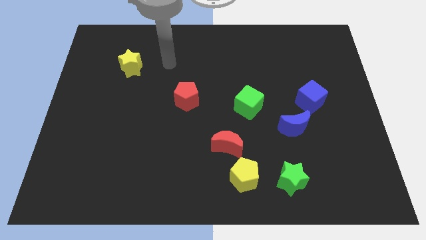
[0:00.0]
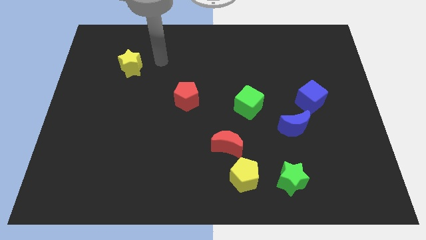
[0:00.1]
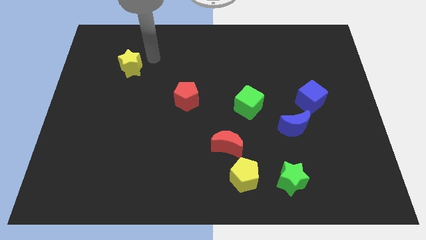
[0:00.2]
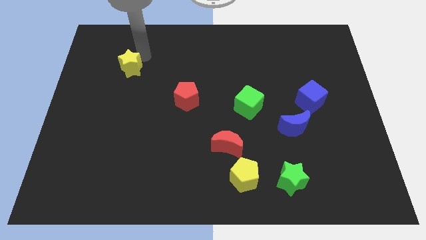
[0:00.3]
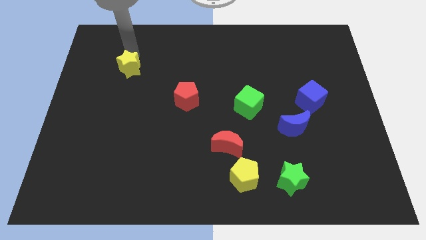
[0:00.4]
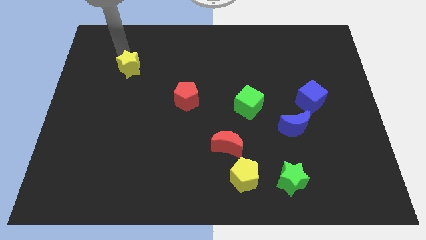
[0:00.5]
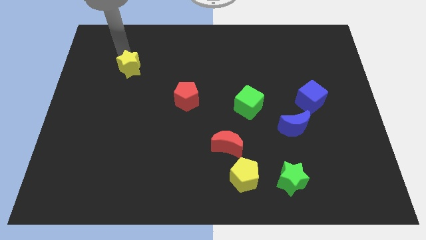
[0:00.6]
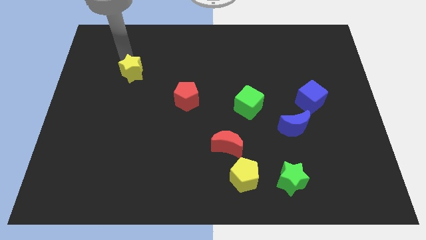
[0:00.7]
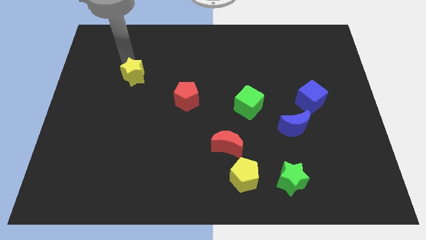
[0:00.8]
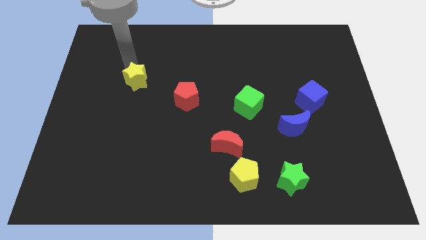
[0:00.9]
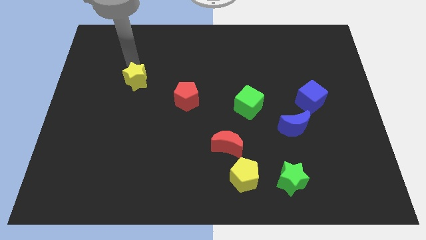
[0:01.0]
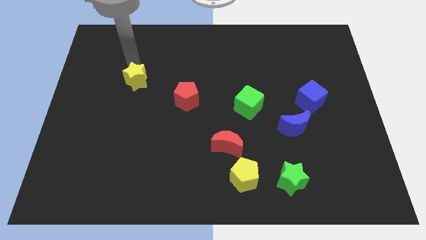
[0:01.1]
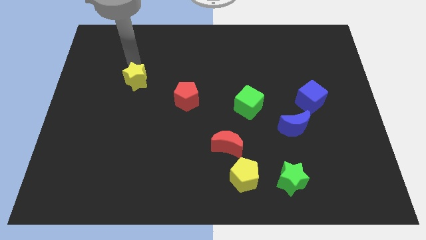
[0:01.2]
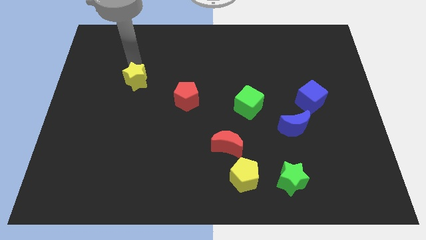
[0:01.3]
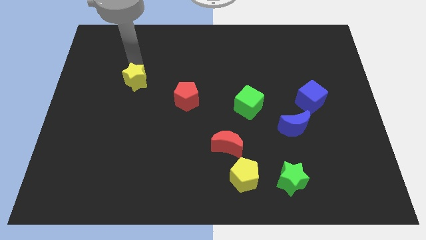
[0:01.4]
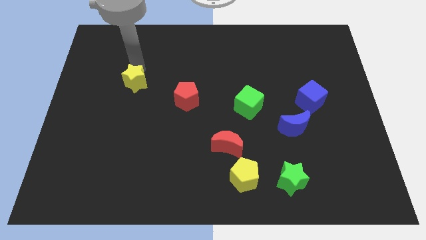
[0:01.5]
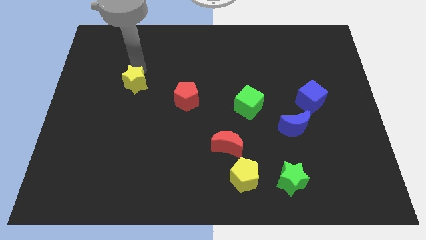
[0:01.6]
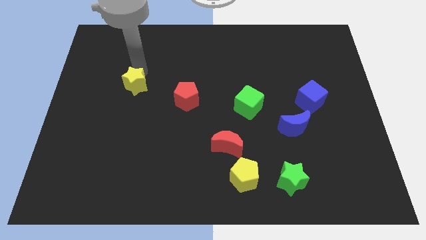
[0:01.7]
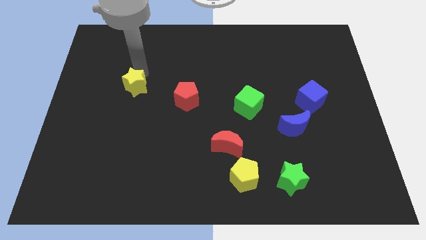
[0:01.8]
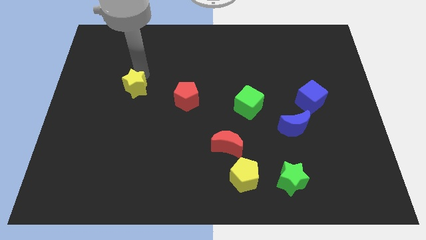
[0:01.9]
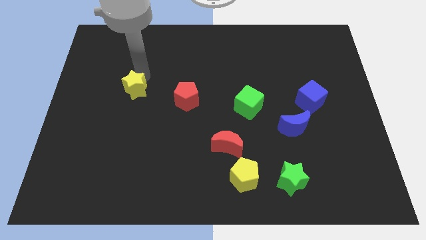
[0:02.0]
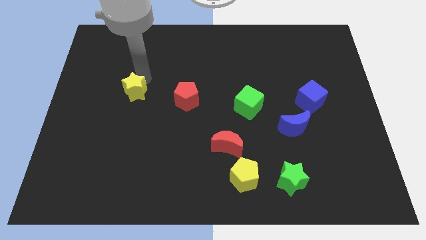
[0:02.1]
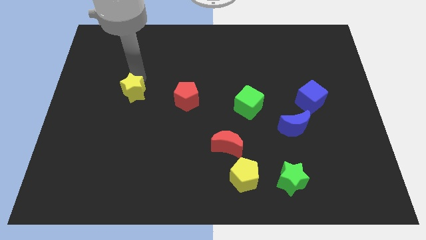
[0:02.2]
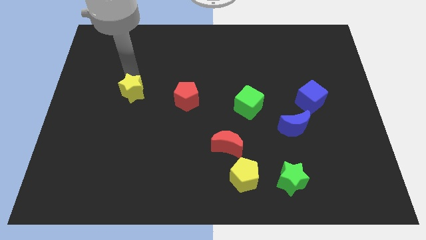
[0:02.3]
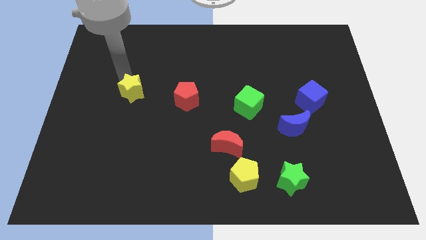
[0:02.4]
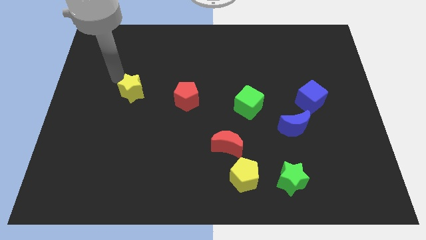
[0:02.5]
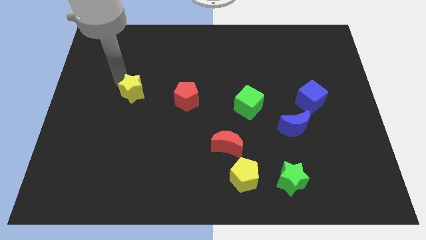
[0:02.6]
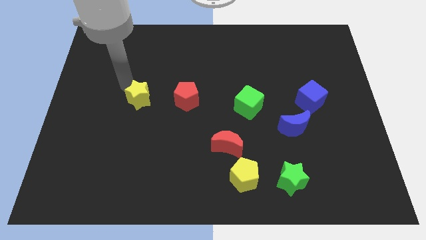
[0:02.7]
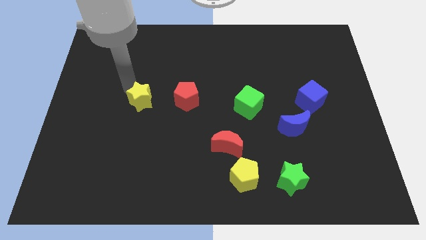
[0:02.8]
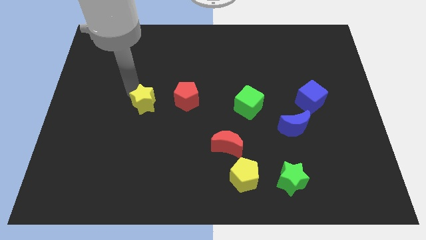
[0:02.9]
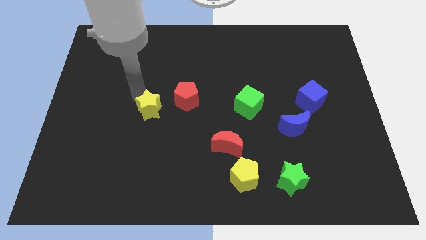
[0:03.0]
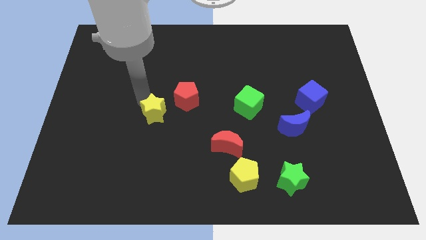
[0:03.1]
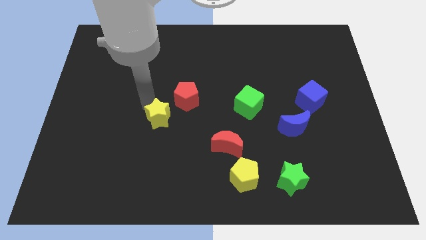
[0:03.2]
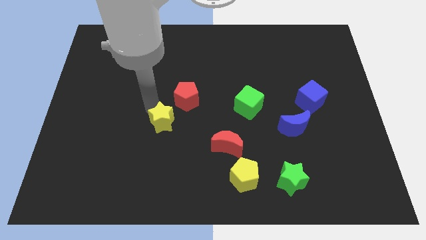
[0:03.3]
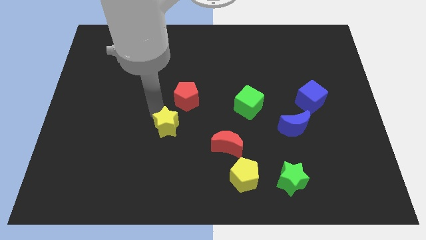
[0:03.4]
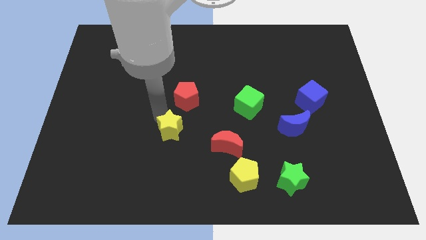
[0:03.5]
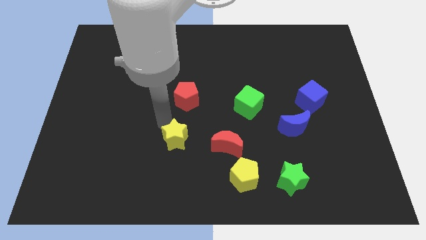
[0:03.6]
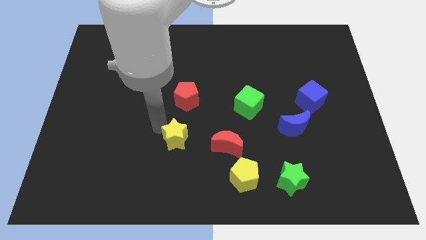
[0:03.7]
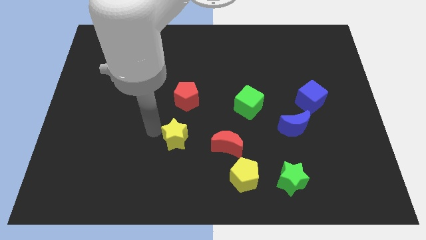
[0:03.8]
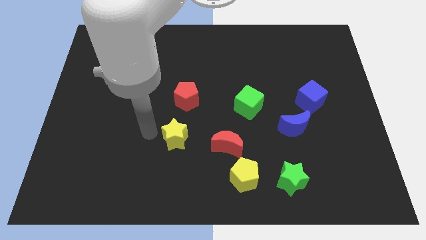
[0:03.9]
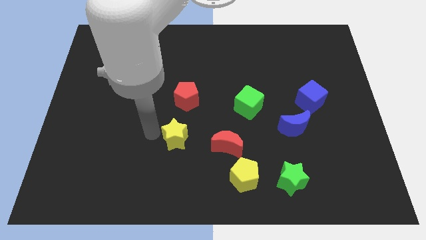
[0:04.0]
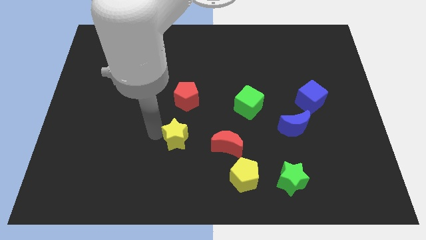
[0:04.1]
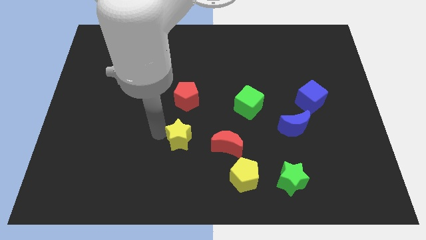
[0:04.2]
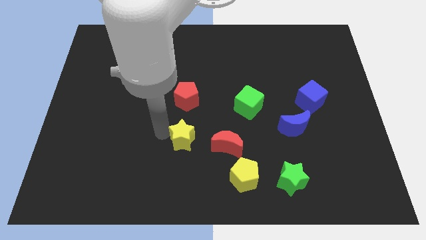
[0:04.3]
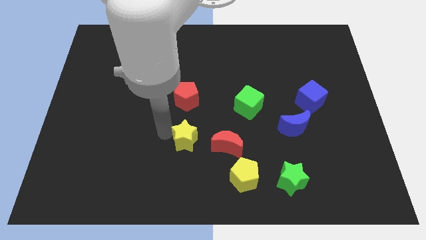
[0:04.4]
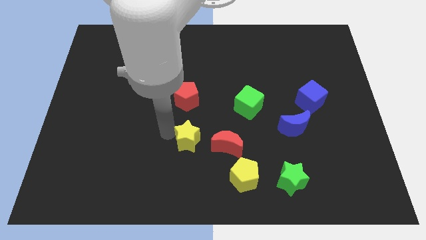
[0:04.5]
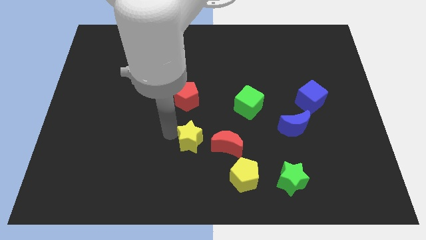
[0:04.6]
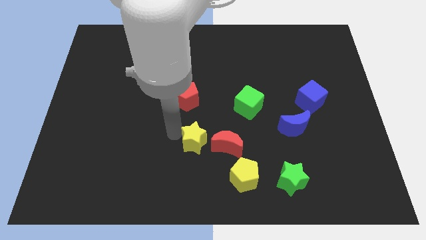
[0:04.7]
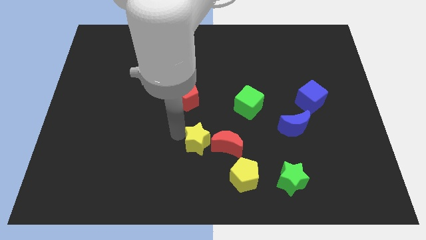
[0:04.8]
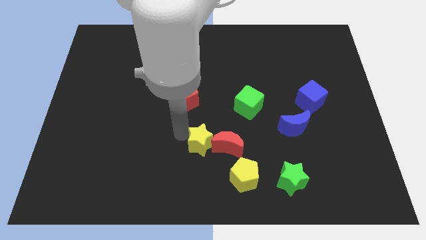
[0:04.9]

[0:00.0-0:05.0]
slide the yellow star close to the red moon

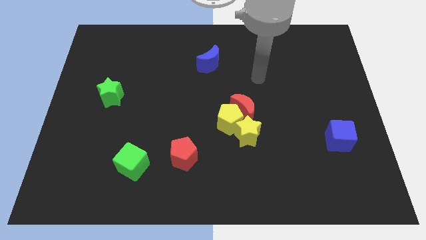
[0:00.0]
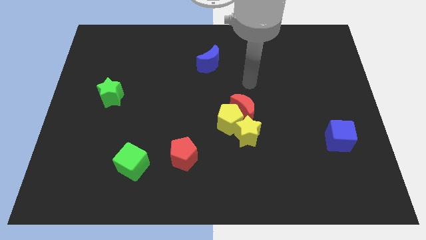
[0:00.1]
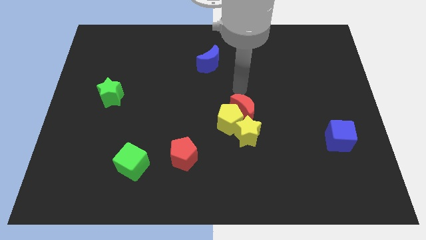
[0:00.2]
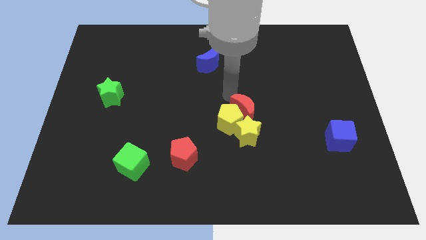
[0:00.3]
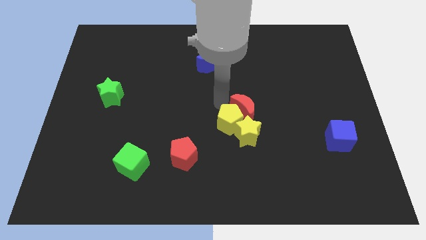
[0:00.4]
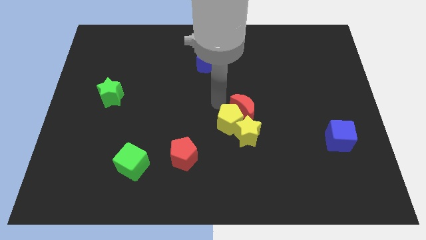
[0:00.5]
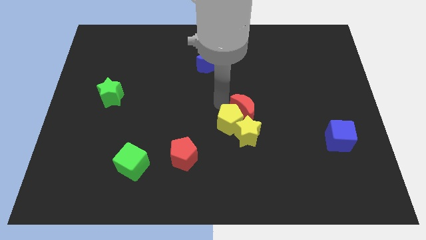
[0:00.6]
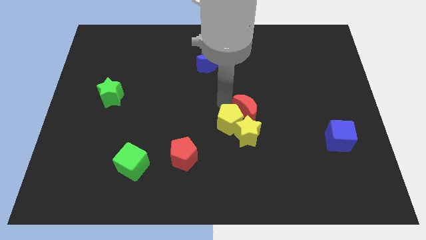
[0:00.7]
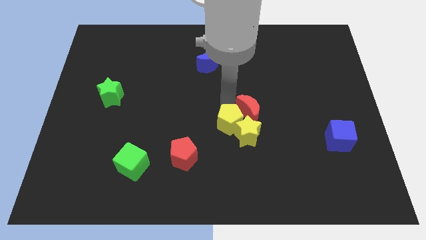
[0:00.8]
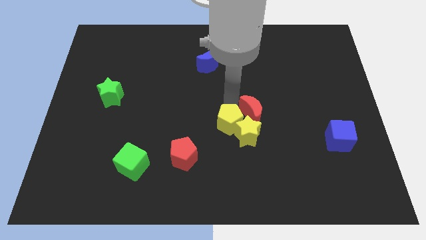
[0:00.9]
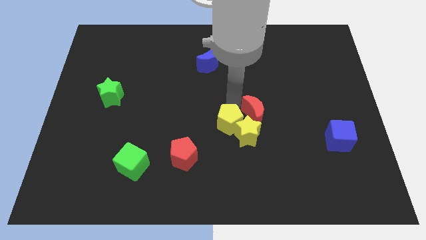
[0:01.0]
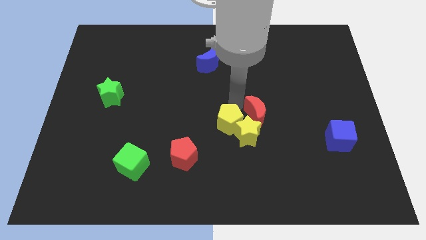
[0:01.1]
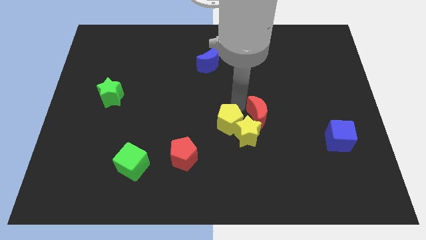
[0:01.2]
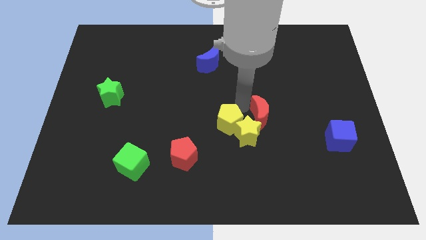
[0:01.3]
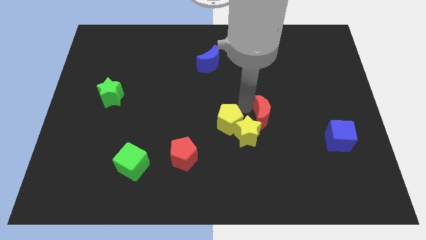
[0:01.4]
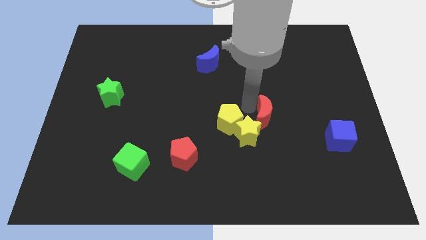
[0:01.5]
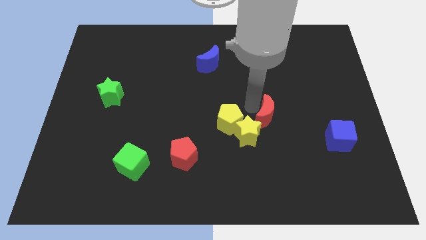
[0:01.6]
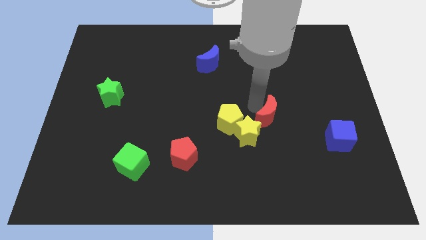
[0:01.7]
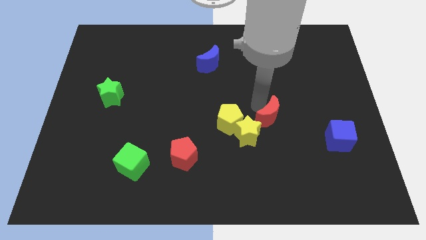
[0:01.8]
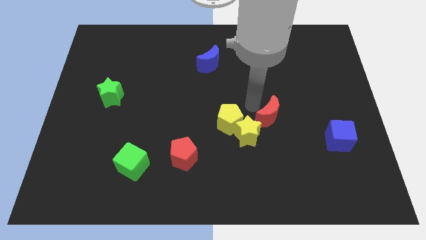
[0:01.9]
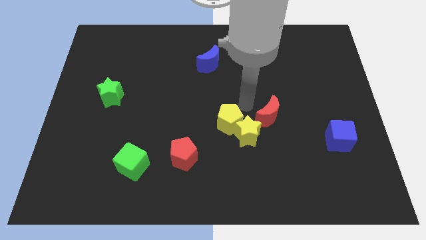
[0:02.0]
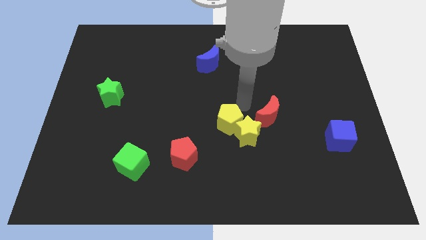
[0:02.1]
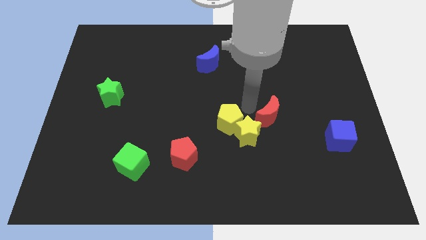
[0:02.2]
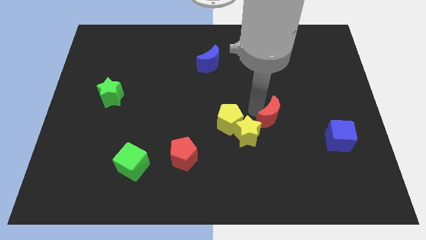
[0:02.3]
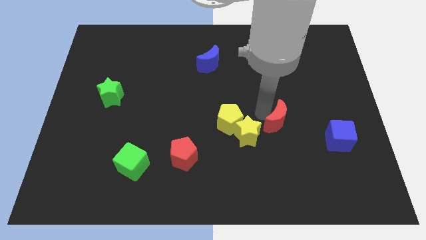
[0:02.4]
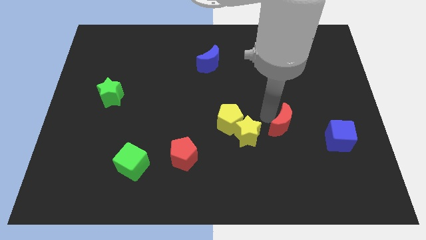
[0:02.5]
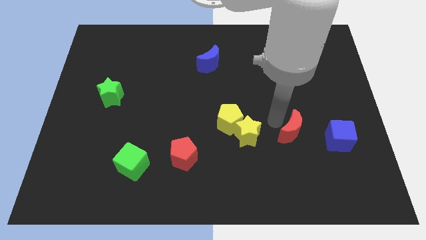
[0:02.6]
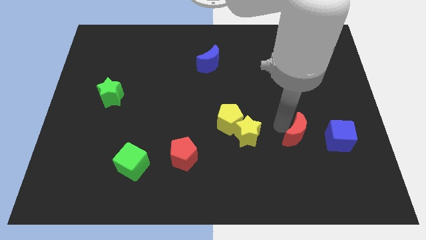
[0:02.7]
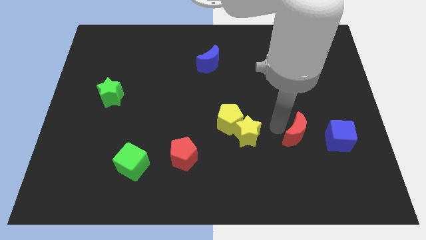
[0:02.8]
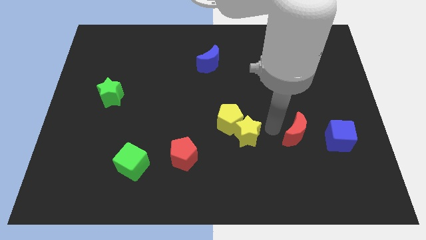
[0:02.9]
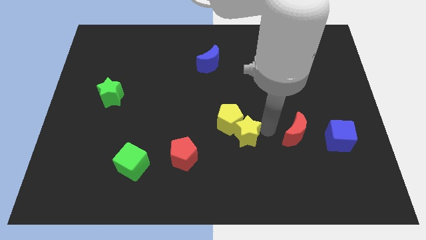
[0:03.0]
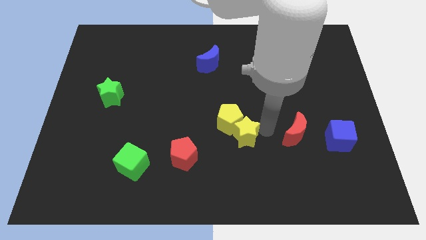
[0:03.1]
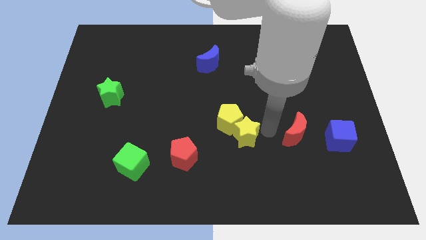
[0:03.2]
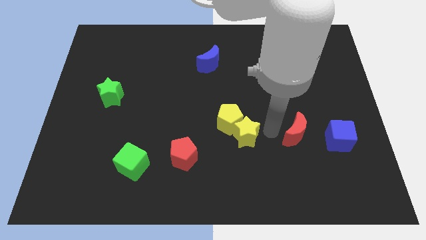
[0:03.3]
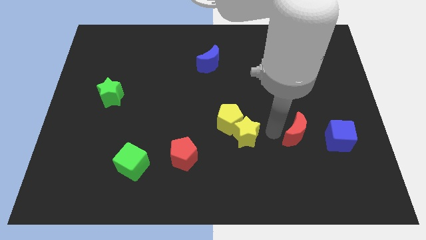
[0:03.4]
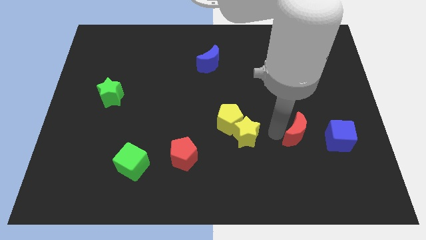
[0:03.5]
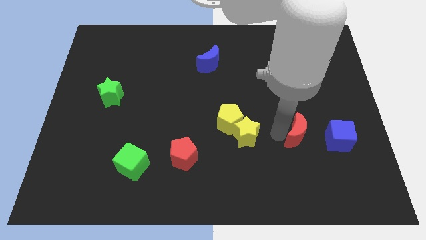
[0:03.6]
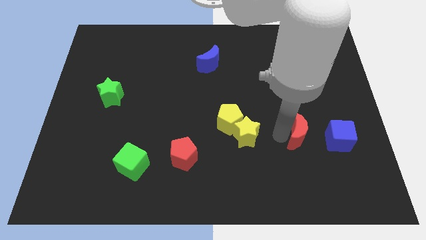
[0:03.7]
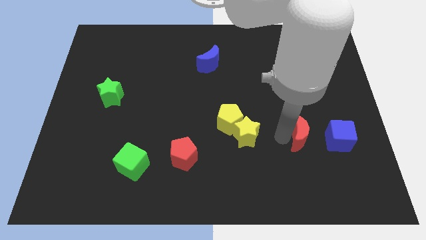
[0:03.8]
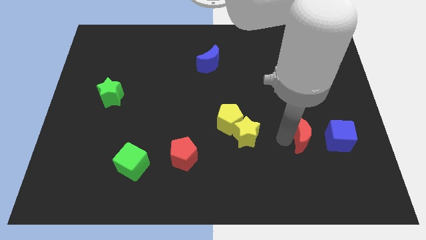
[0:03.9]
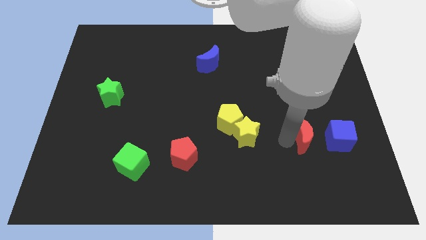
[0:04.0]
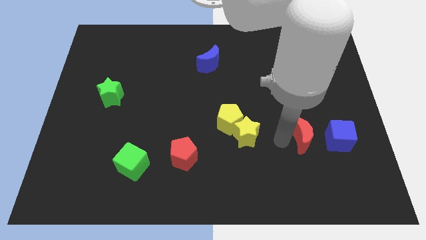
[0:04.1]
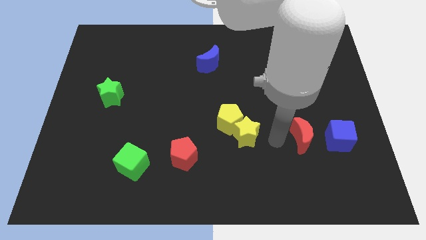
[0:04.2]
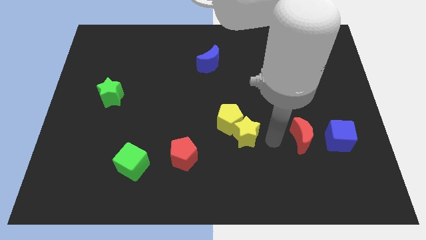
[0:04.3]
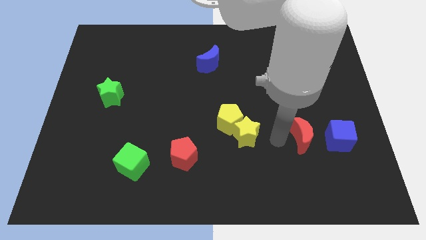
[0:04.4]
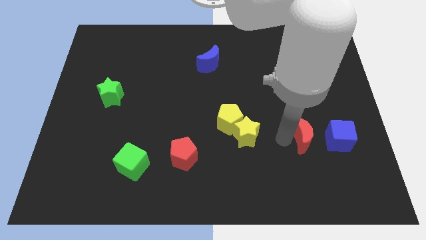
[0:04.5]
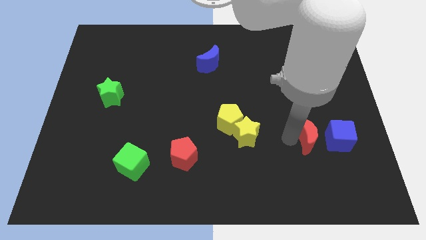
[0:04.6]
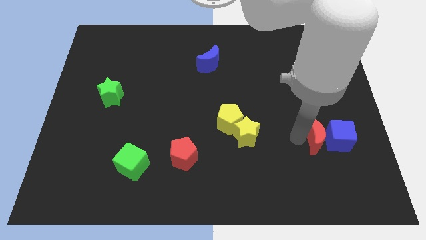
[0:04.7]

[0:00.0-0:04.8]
push the red moon towards the blue cube
